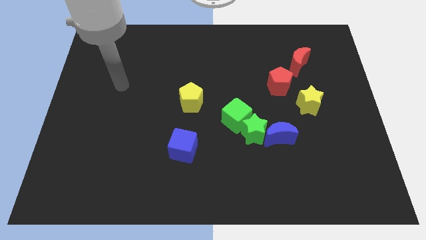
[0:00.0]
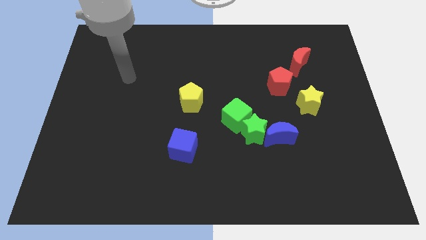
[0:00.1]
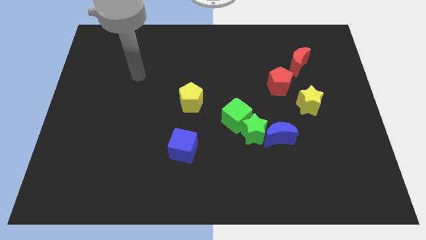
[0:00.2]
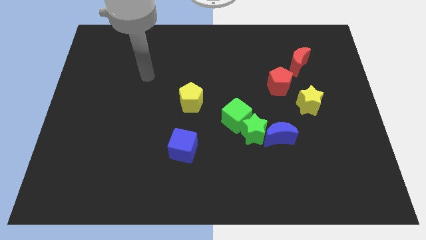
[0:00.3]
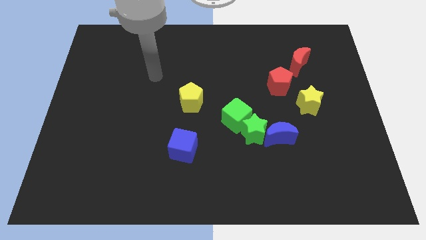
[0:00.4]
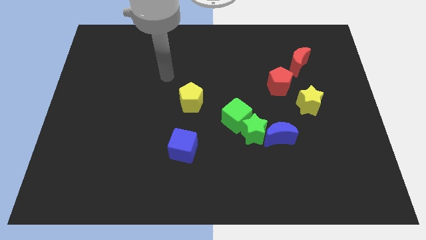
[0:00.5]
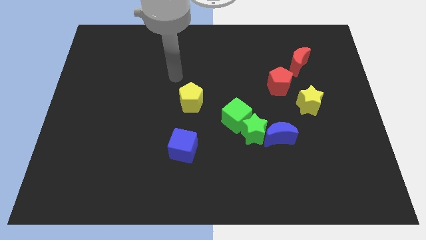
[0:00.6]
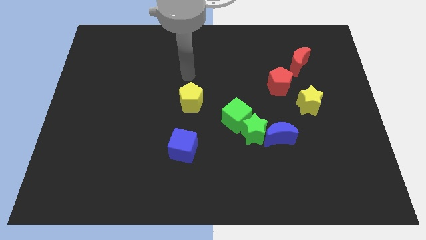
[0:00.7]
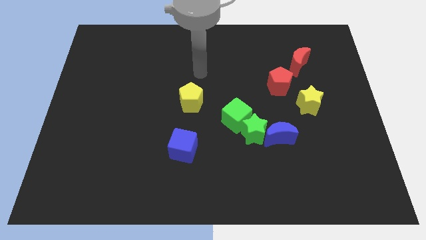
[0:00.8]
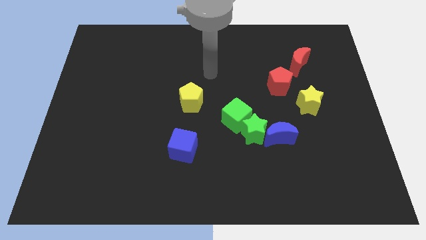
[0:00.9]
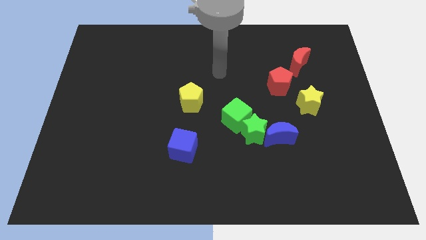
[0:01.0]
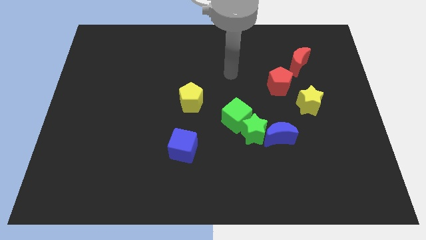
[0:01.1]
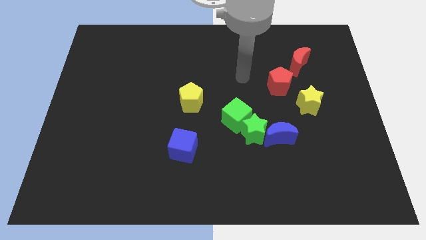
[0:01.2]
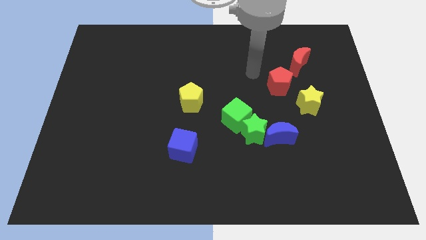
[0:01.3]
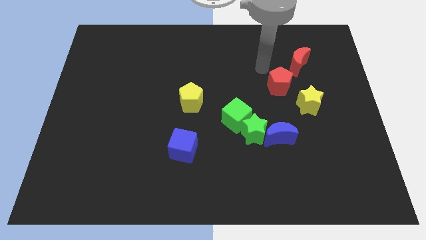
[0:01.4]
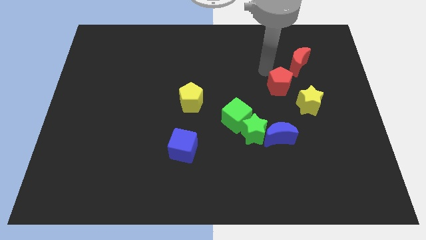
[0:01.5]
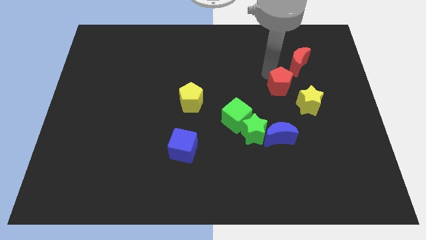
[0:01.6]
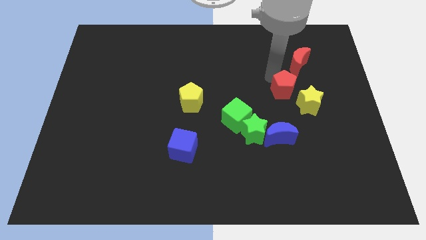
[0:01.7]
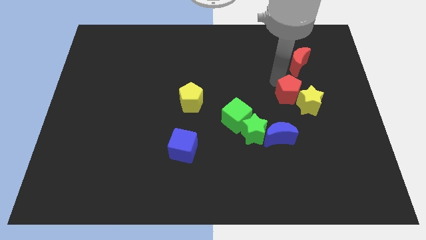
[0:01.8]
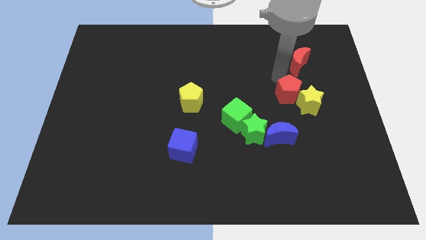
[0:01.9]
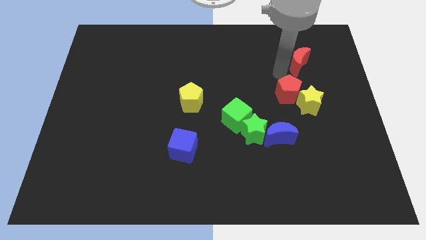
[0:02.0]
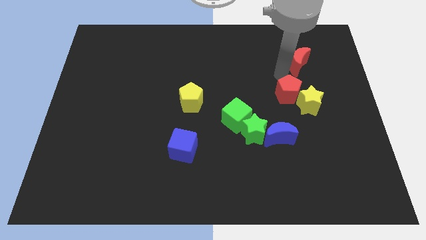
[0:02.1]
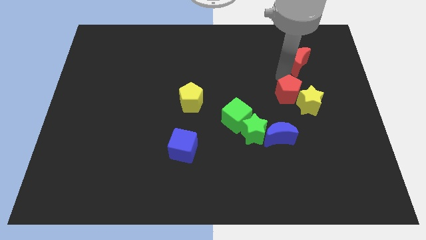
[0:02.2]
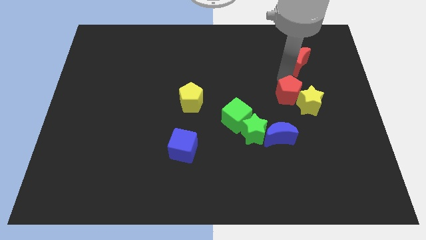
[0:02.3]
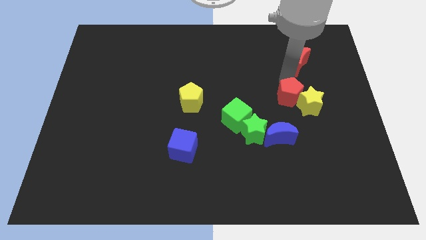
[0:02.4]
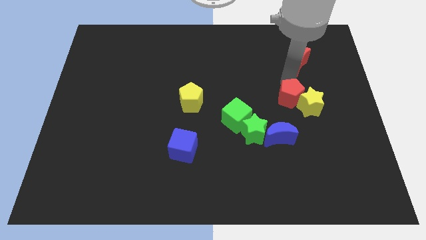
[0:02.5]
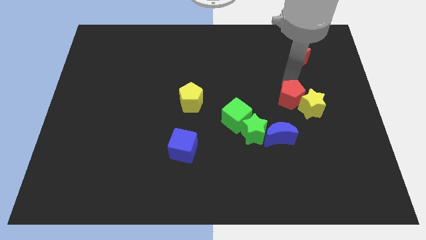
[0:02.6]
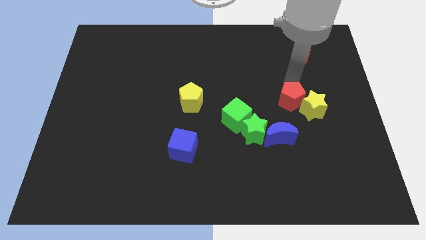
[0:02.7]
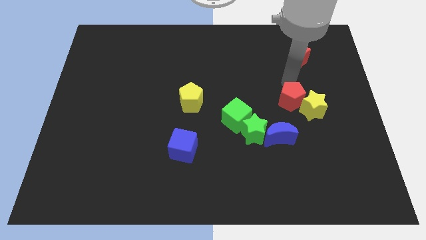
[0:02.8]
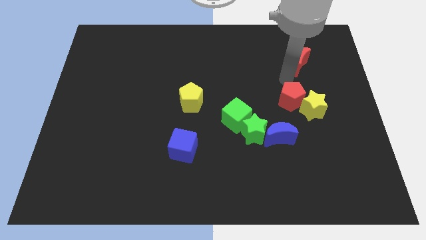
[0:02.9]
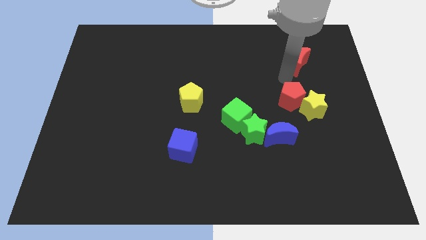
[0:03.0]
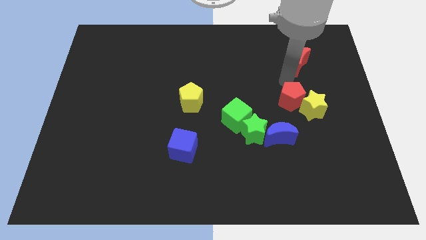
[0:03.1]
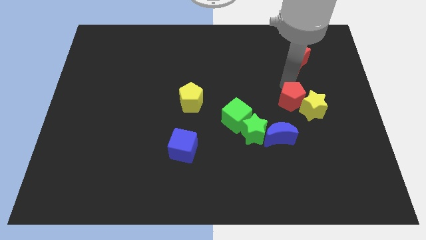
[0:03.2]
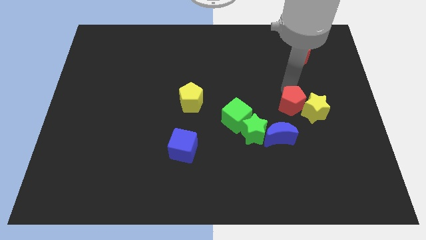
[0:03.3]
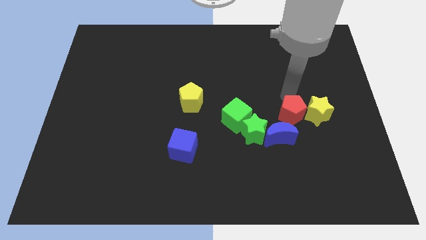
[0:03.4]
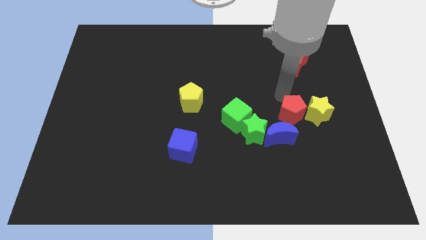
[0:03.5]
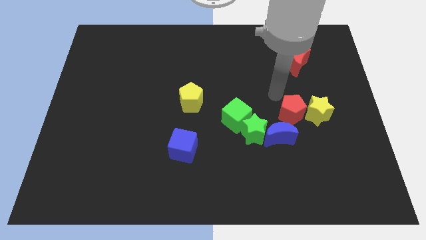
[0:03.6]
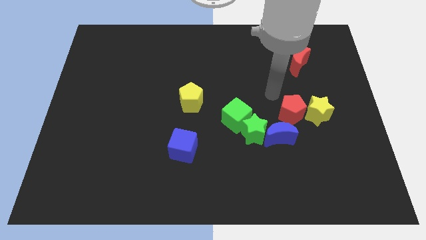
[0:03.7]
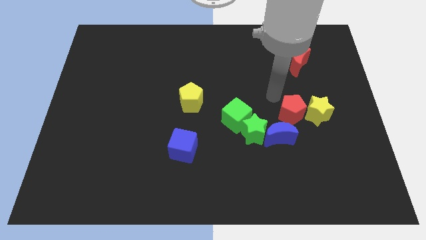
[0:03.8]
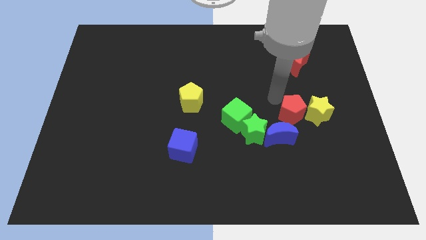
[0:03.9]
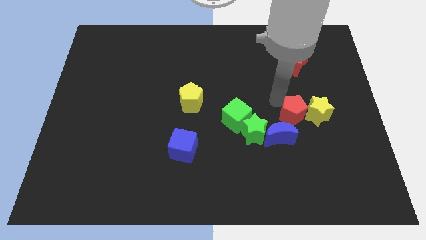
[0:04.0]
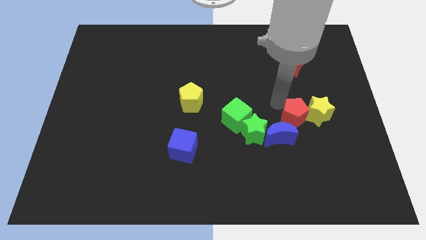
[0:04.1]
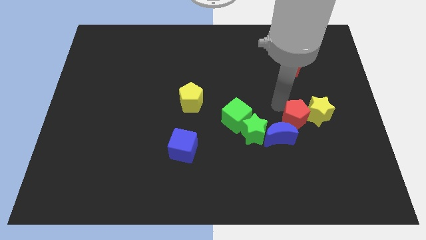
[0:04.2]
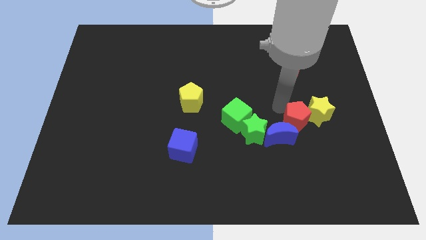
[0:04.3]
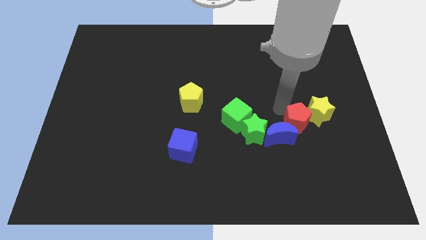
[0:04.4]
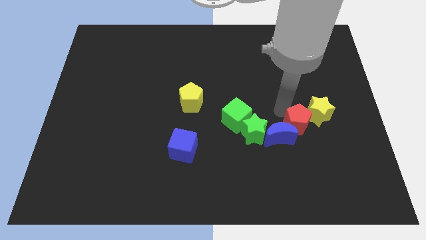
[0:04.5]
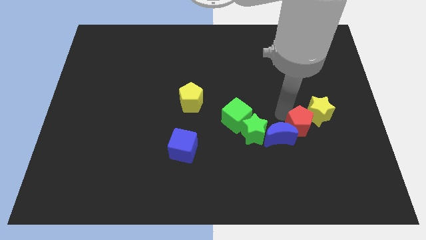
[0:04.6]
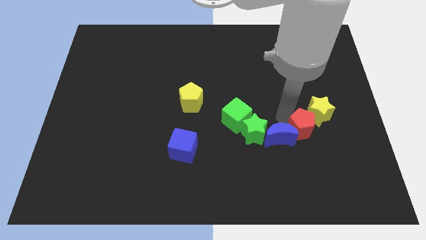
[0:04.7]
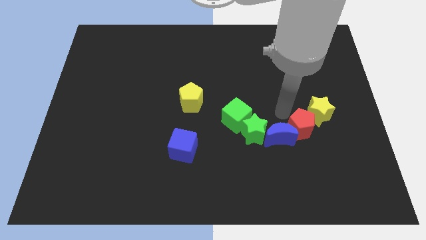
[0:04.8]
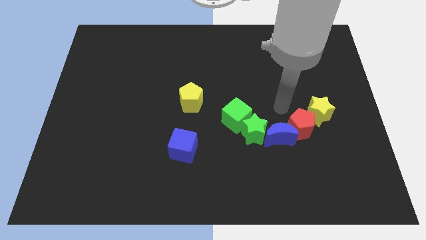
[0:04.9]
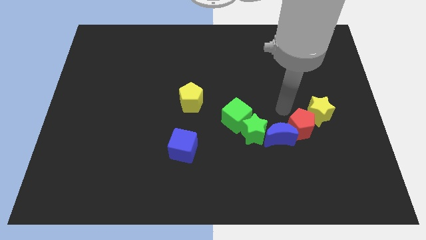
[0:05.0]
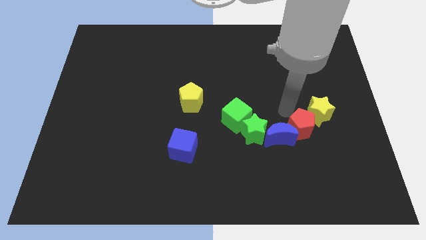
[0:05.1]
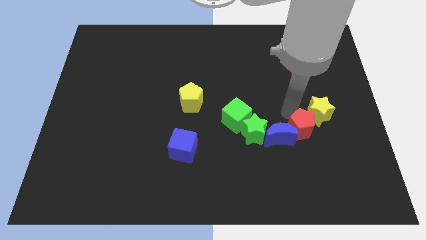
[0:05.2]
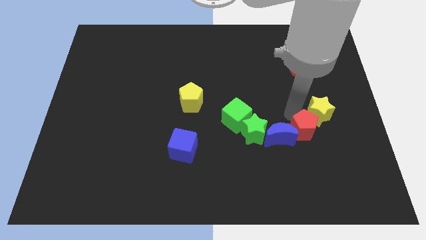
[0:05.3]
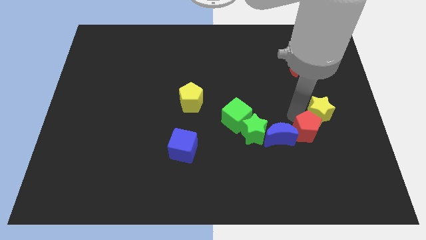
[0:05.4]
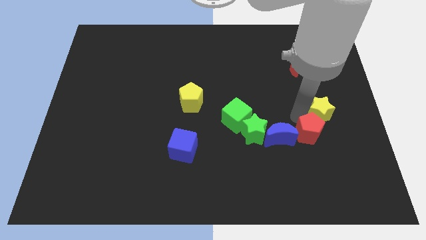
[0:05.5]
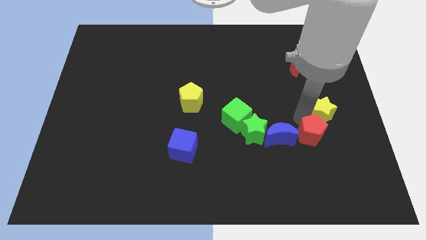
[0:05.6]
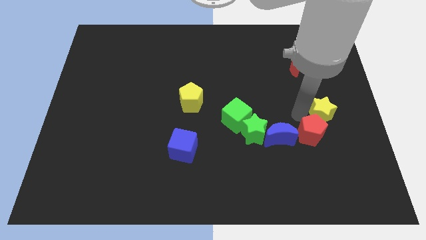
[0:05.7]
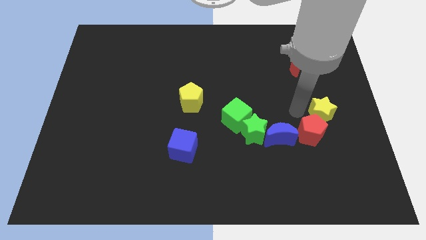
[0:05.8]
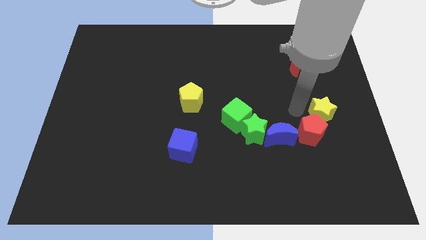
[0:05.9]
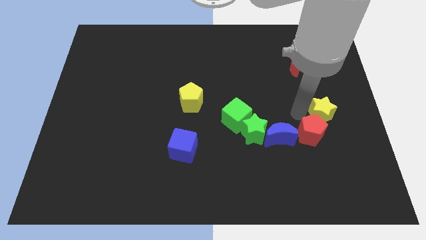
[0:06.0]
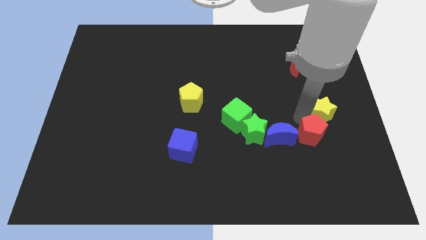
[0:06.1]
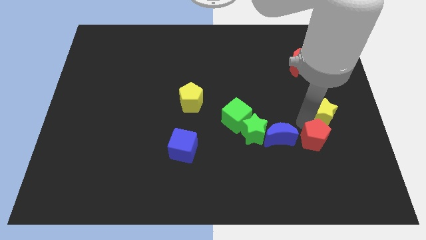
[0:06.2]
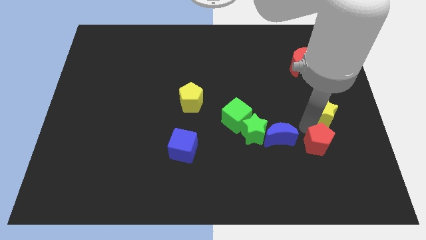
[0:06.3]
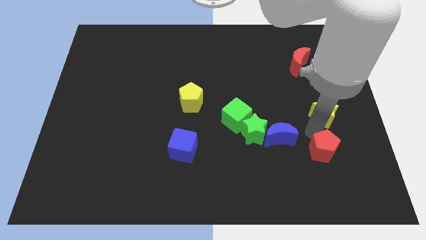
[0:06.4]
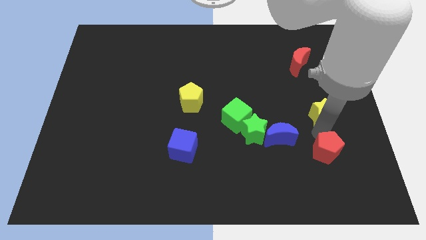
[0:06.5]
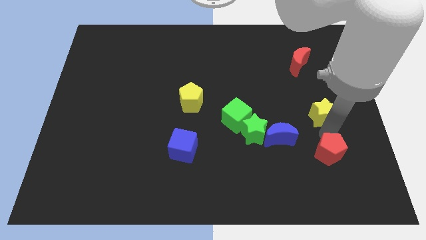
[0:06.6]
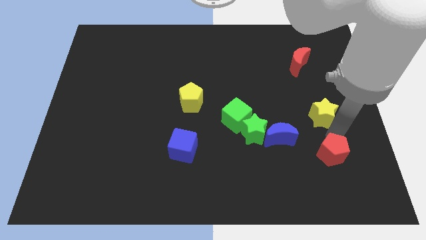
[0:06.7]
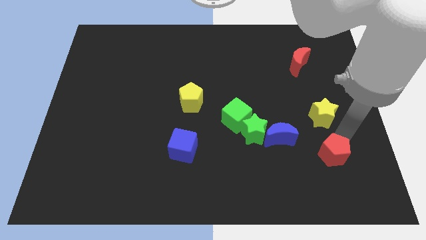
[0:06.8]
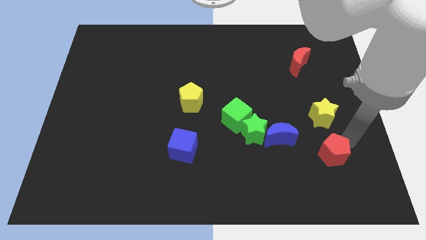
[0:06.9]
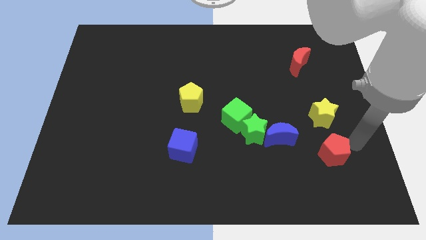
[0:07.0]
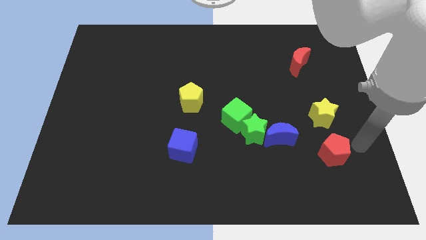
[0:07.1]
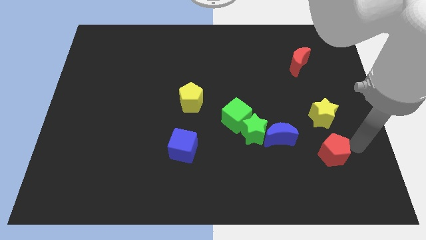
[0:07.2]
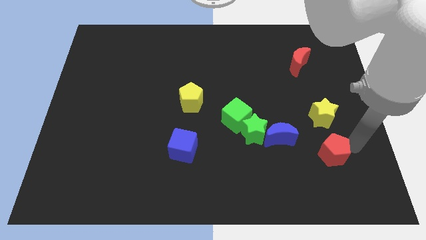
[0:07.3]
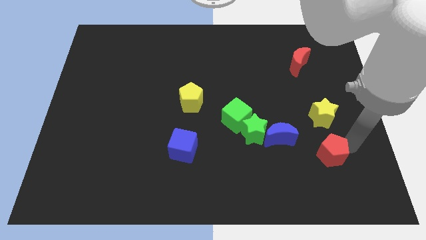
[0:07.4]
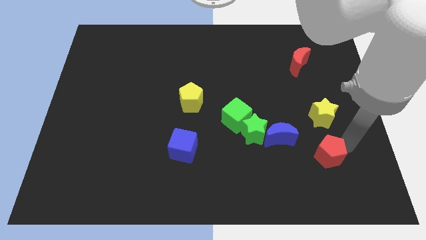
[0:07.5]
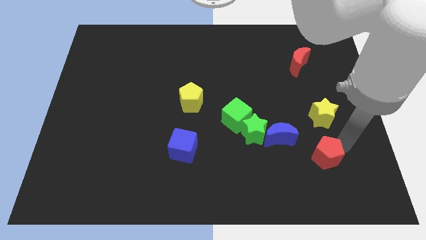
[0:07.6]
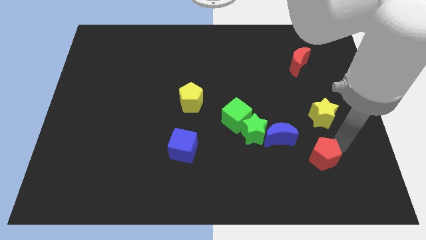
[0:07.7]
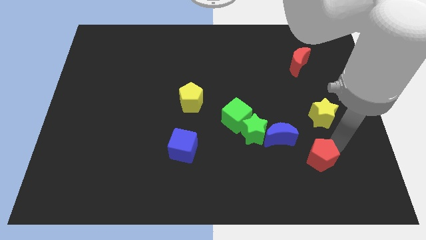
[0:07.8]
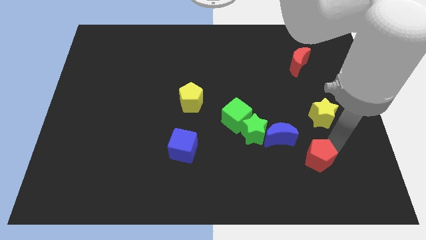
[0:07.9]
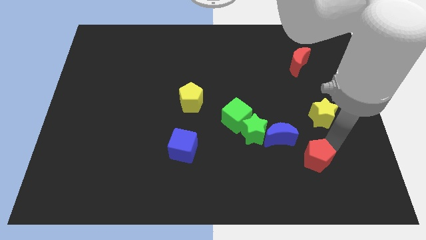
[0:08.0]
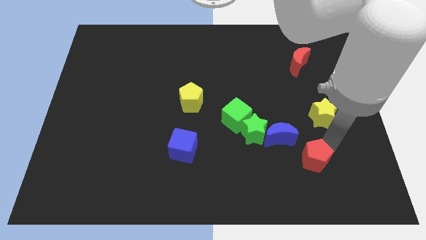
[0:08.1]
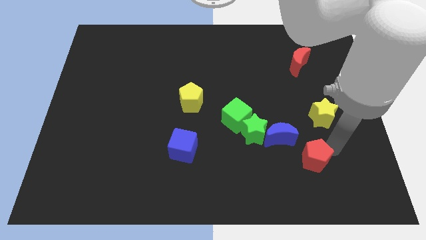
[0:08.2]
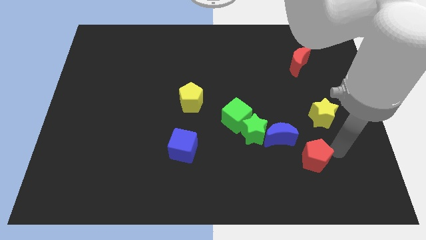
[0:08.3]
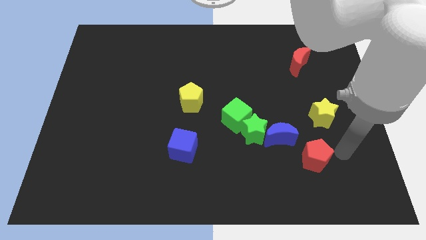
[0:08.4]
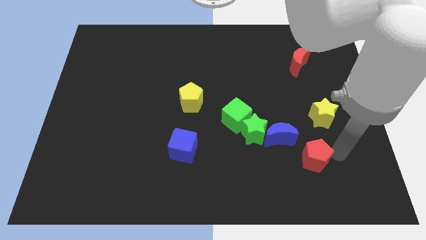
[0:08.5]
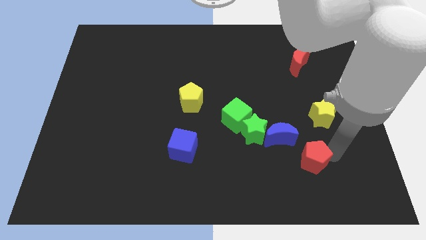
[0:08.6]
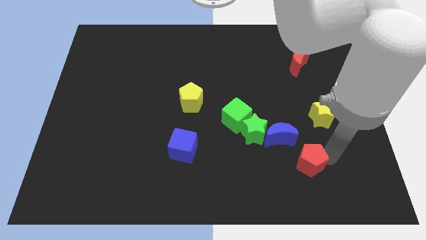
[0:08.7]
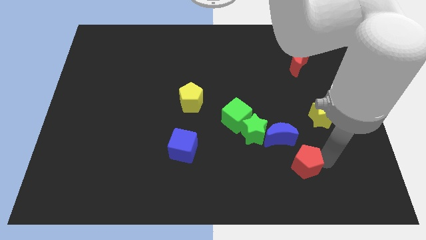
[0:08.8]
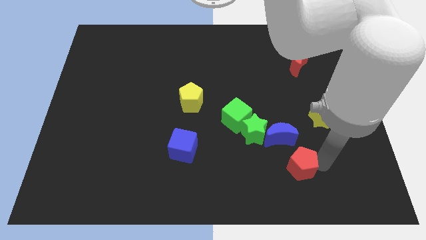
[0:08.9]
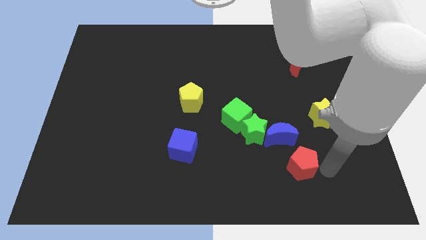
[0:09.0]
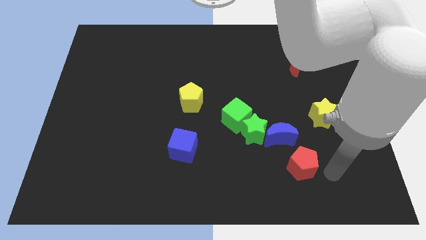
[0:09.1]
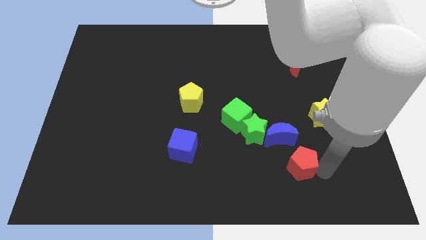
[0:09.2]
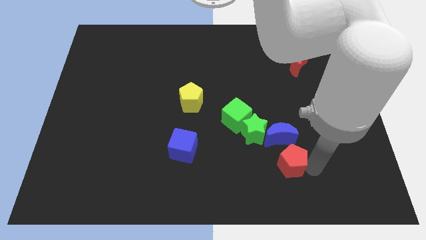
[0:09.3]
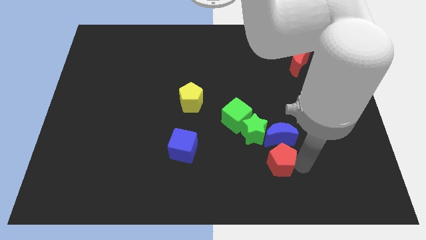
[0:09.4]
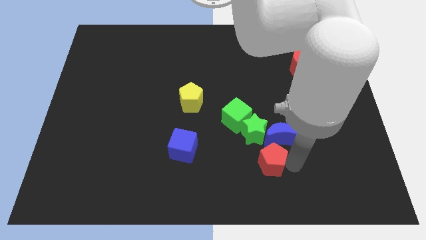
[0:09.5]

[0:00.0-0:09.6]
slightly move the red pentagon diagonally downwards and to the left
